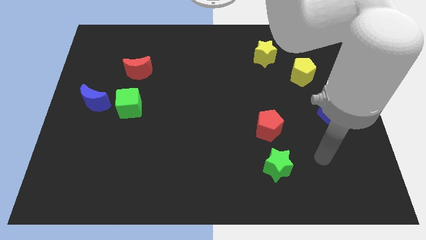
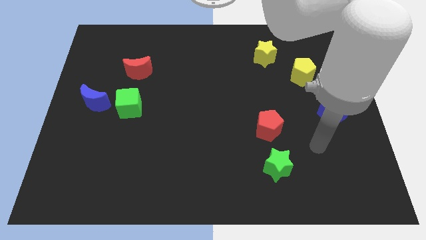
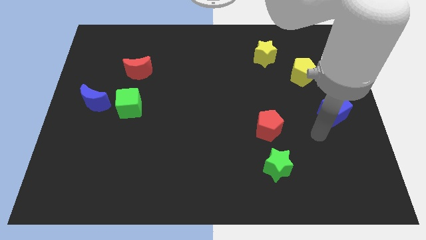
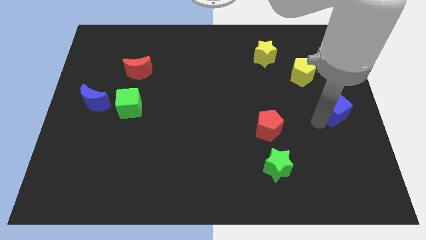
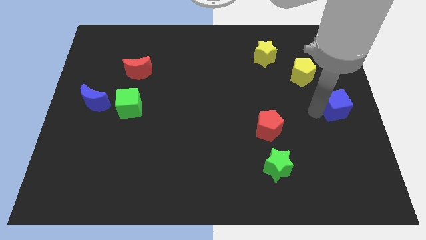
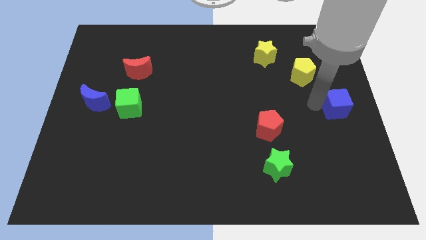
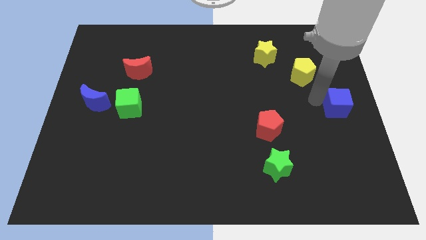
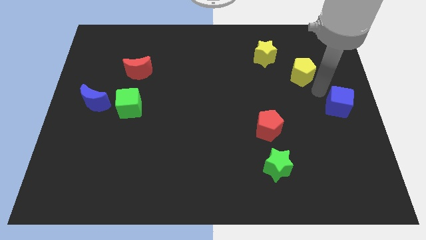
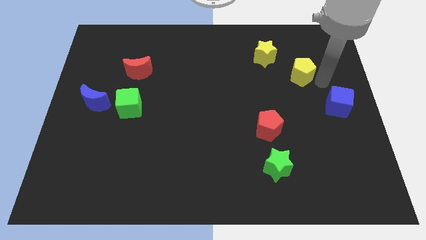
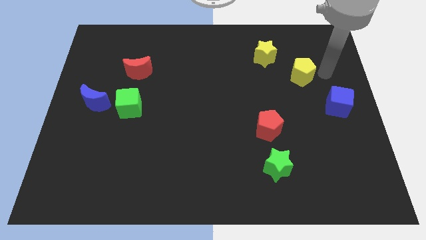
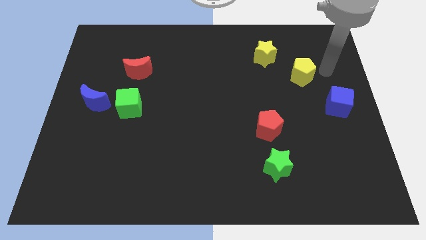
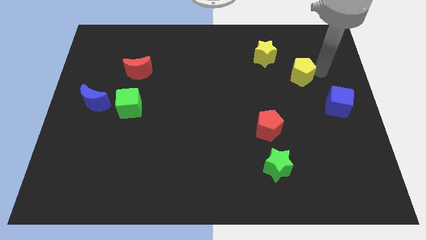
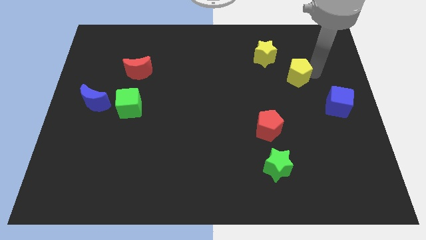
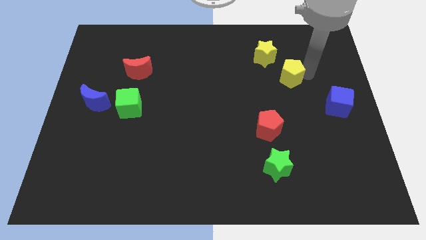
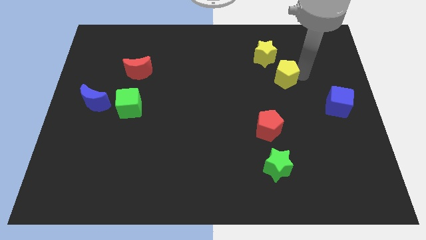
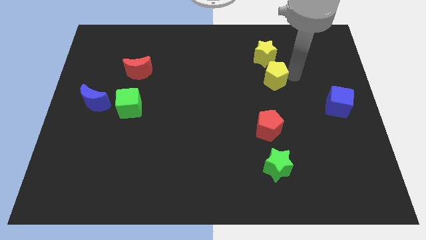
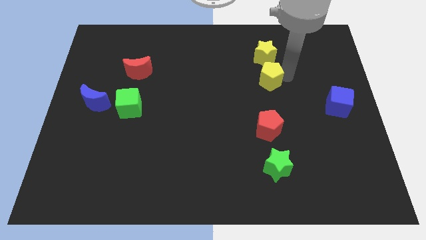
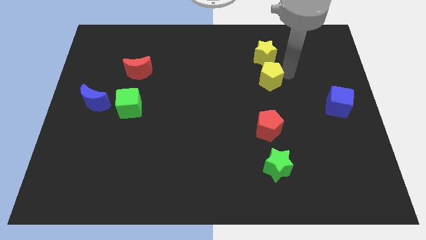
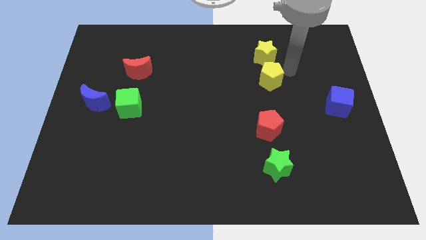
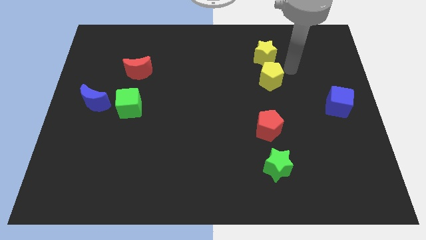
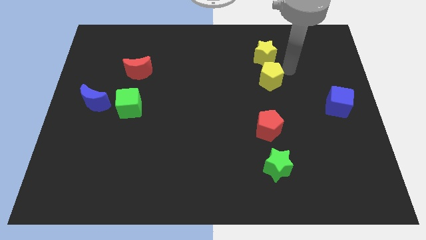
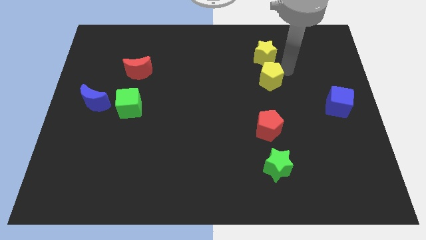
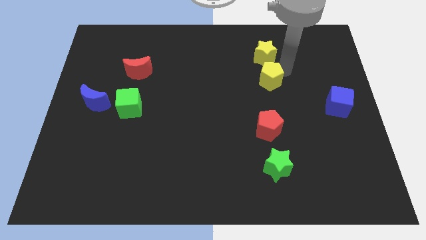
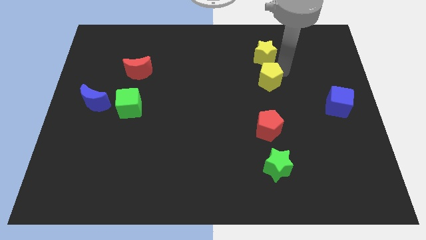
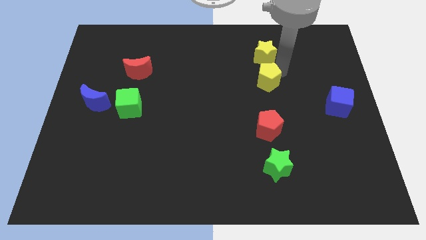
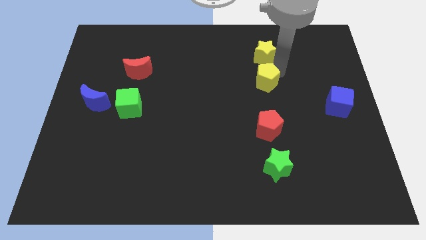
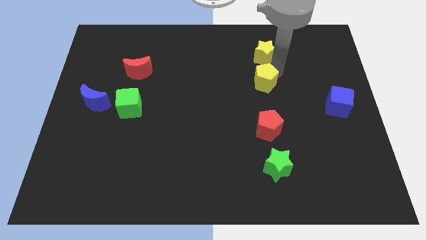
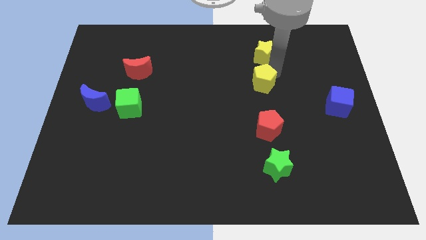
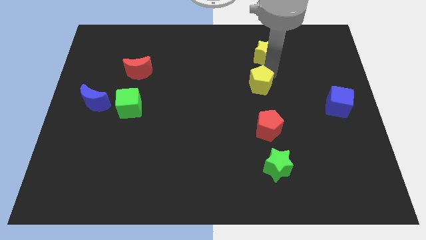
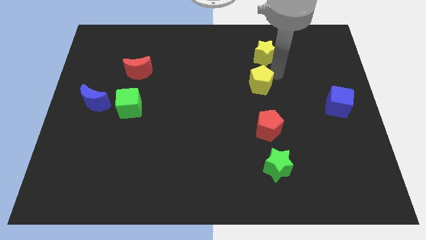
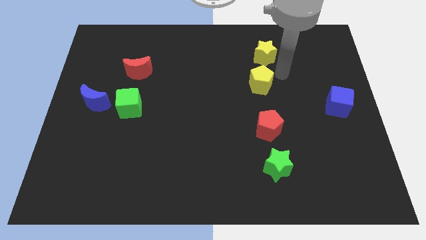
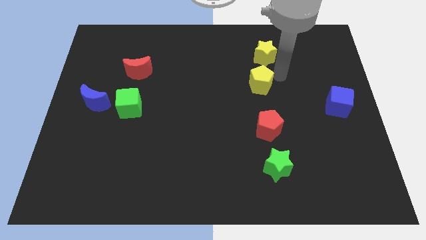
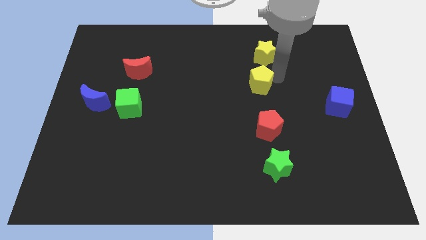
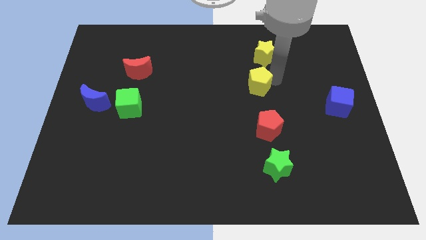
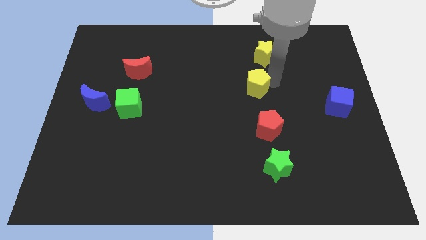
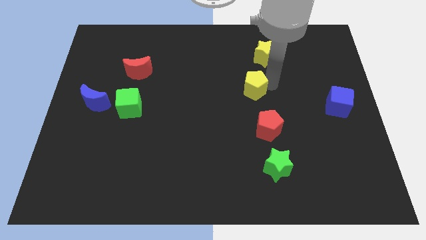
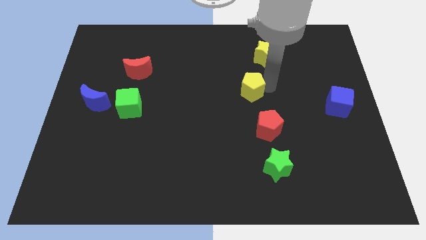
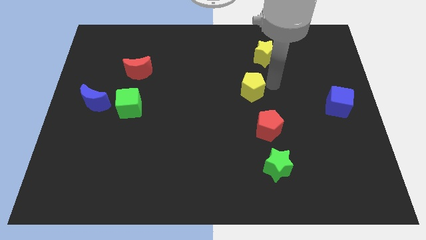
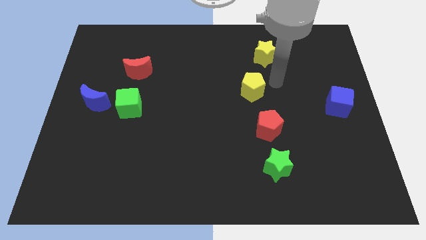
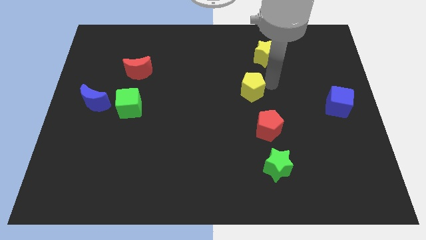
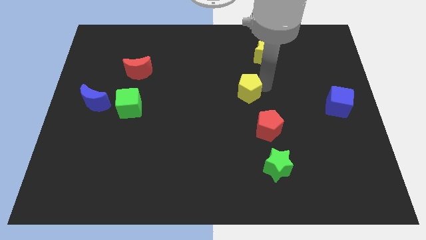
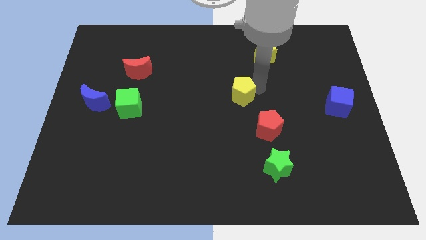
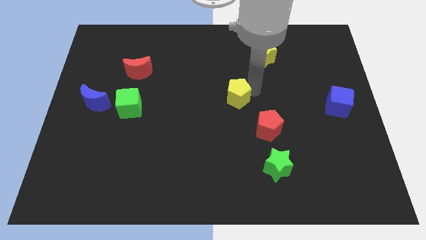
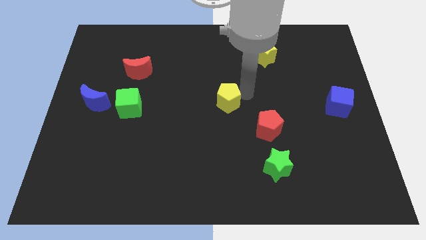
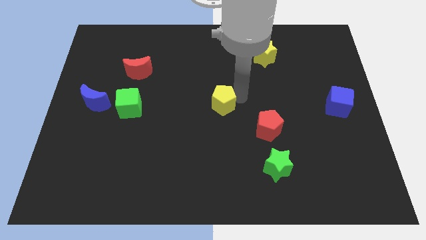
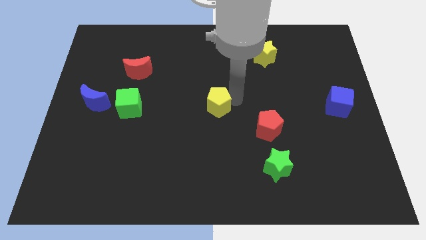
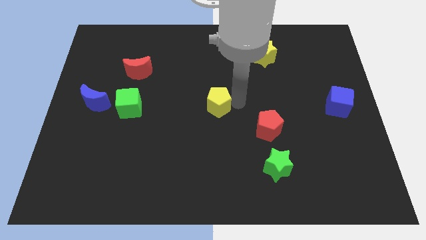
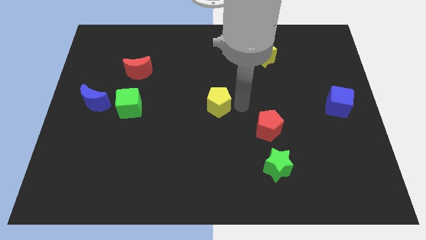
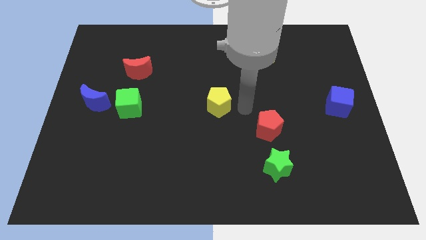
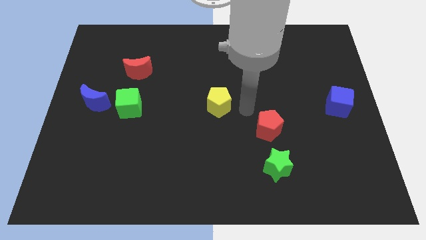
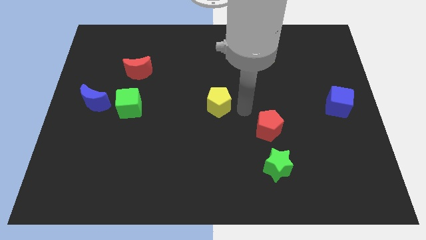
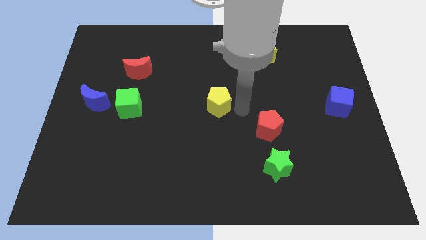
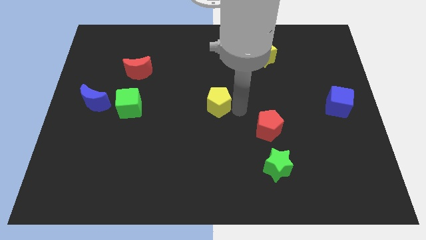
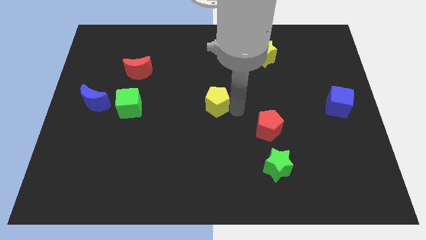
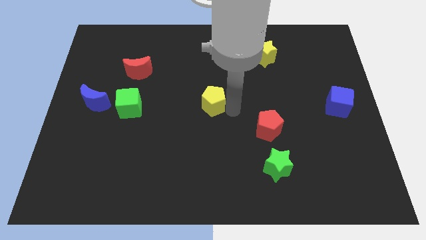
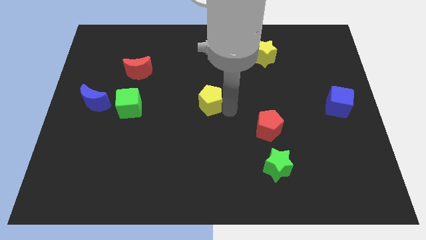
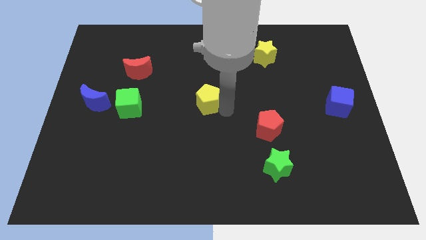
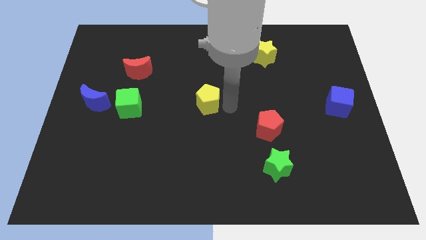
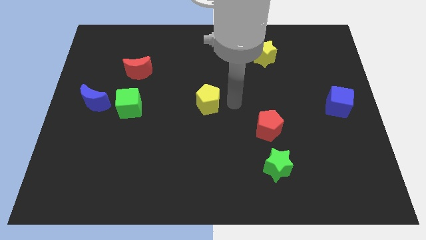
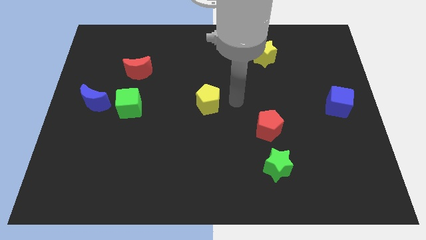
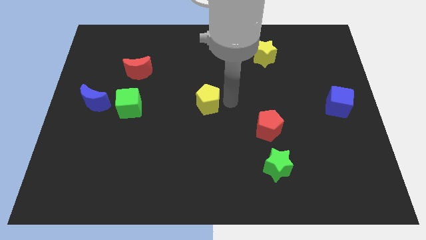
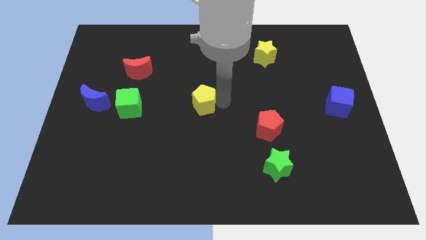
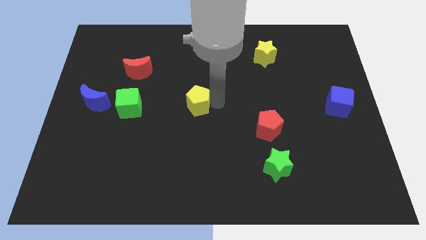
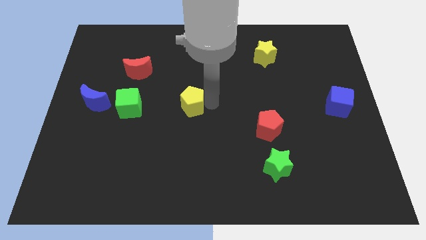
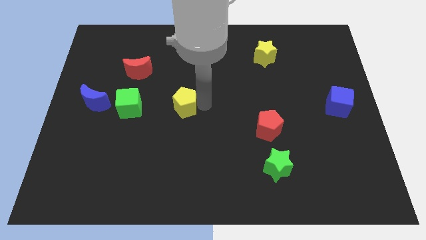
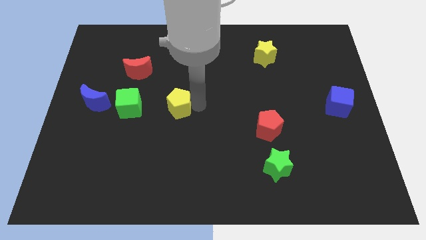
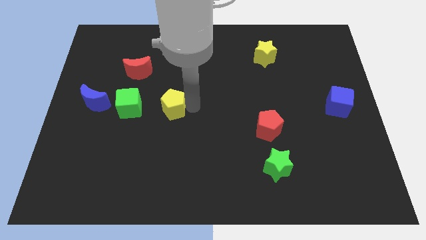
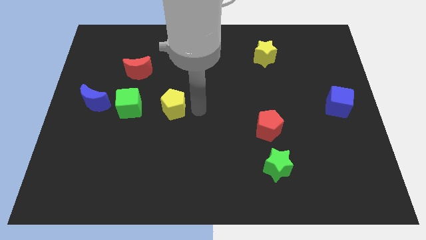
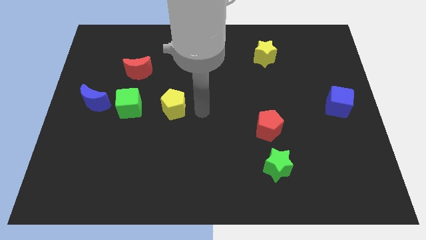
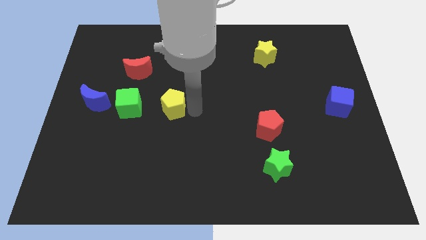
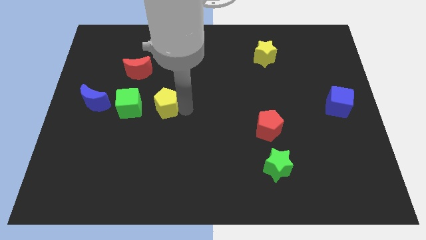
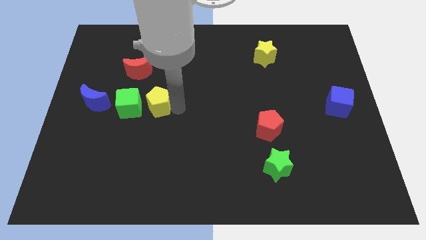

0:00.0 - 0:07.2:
slide the yellow pentagon to the right side of the blue moon

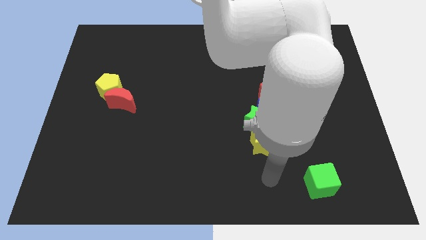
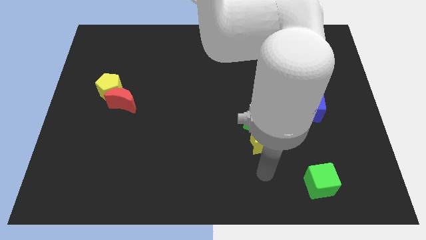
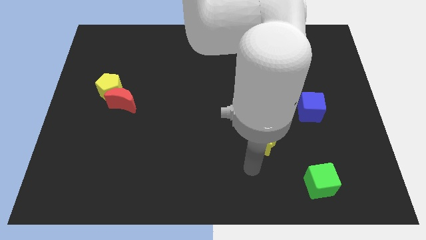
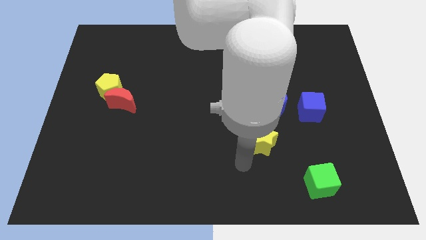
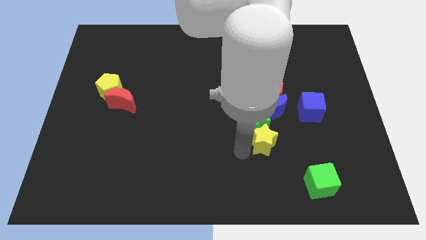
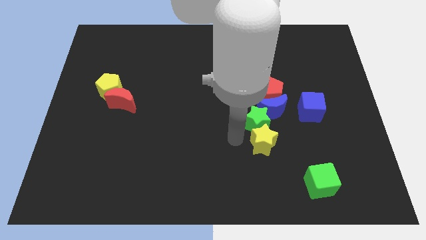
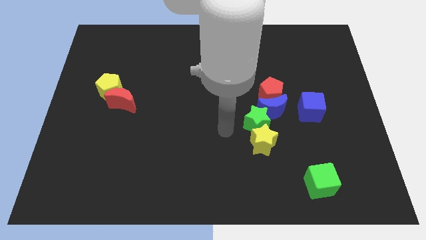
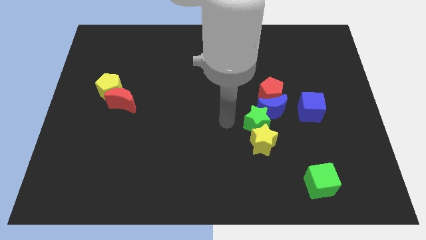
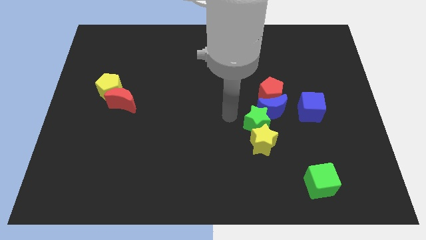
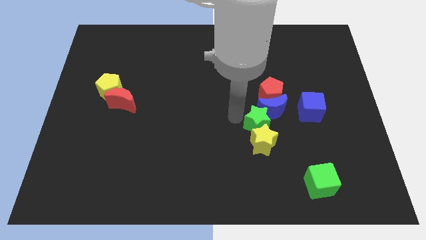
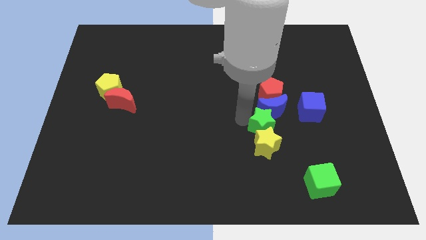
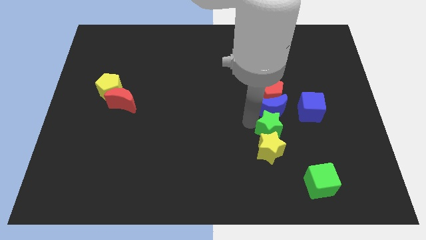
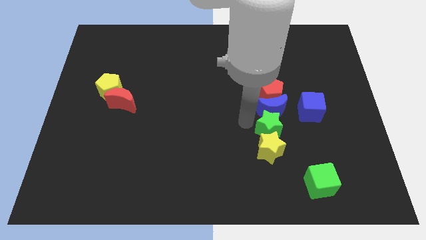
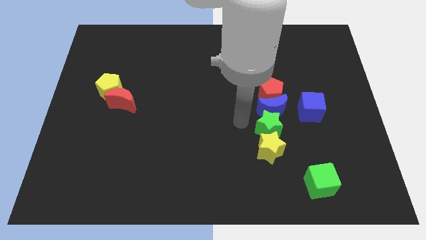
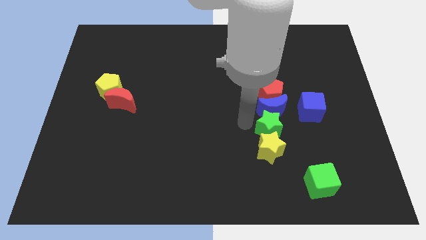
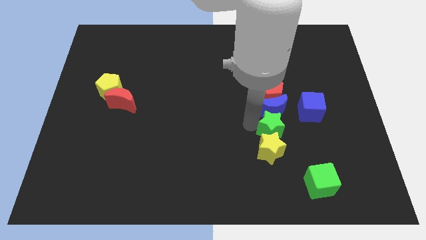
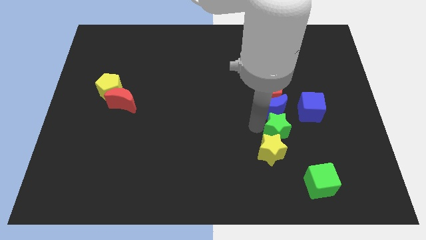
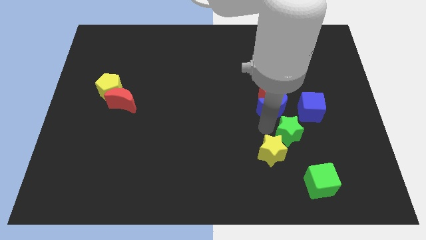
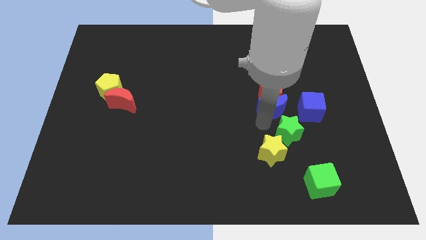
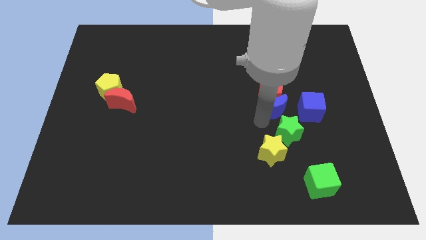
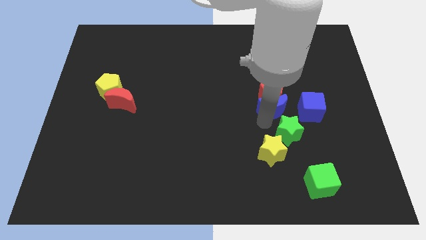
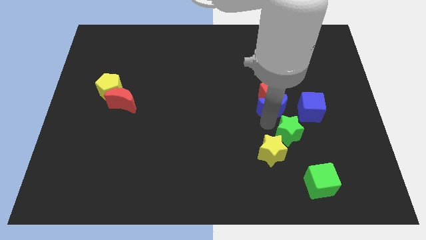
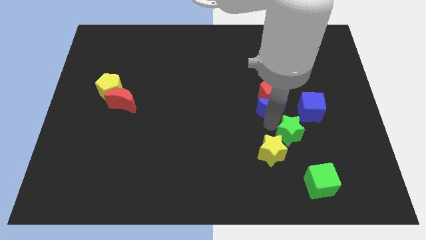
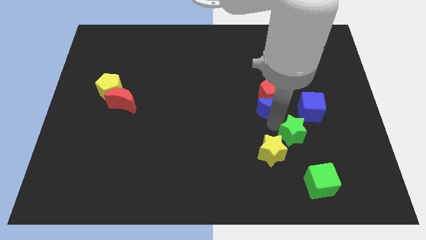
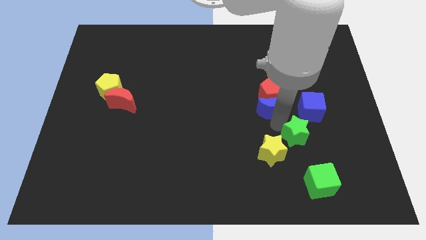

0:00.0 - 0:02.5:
put the green star below the blue cube
